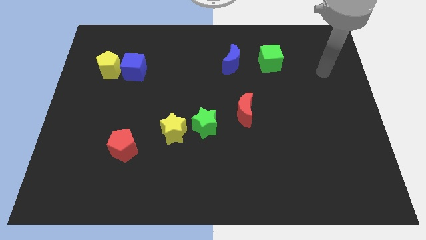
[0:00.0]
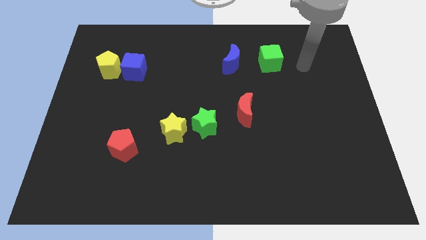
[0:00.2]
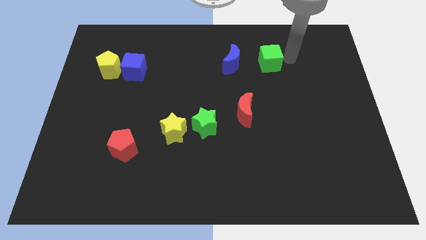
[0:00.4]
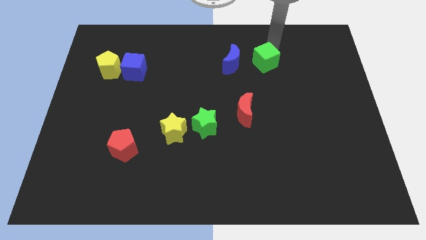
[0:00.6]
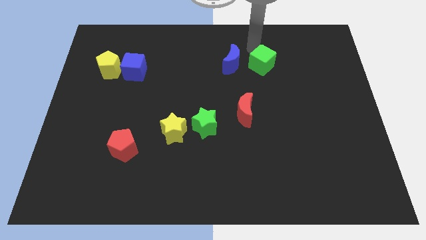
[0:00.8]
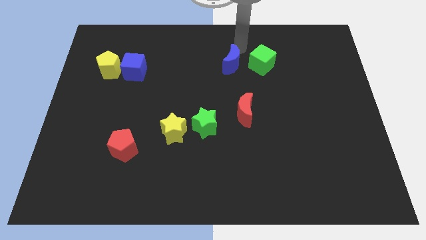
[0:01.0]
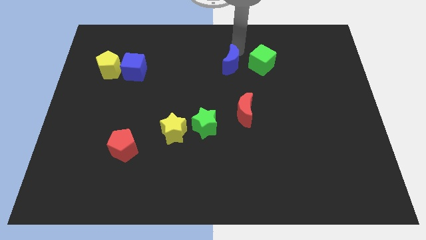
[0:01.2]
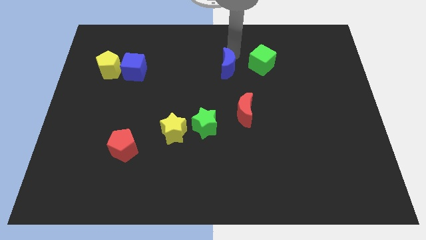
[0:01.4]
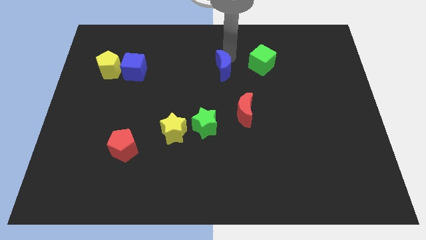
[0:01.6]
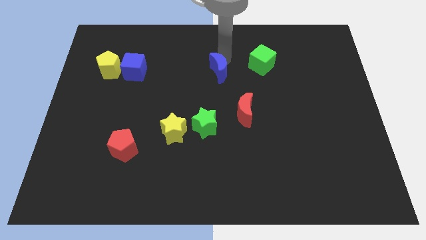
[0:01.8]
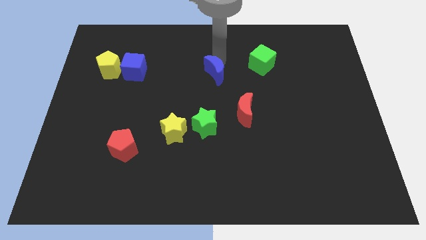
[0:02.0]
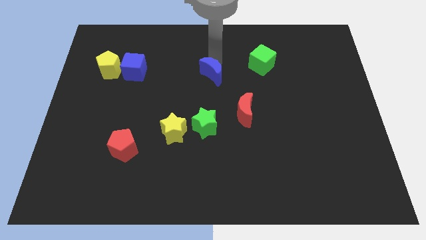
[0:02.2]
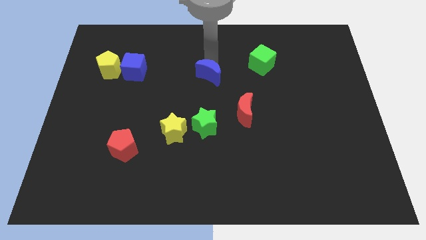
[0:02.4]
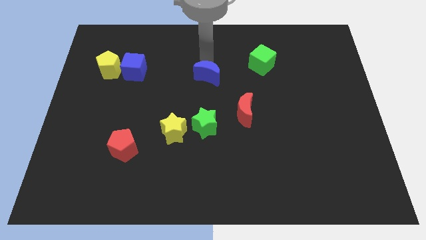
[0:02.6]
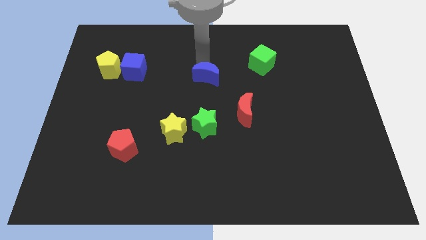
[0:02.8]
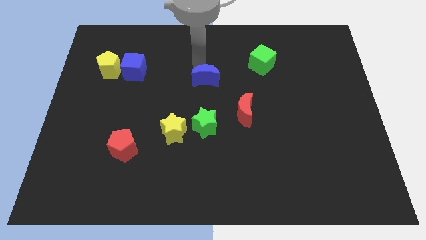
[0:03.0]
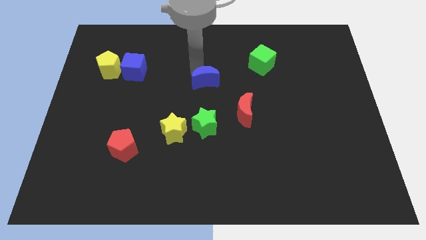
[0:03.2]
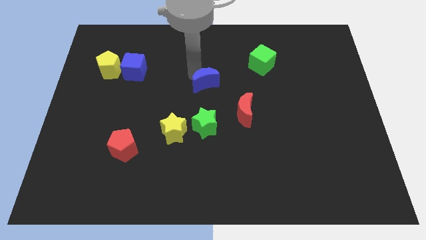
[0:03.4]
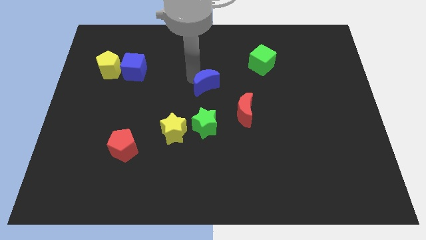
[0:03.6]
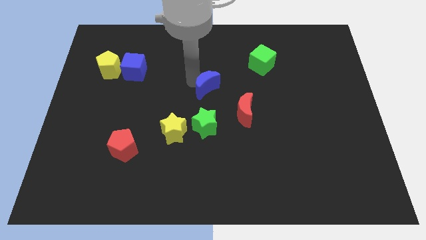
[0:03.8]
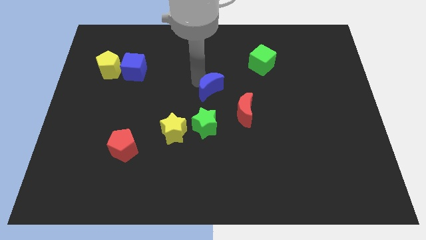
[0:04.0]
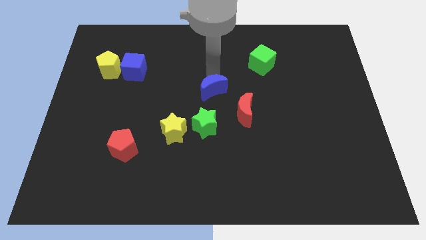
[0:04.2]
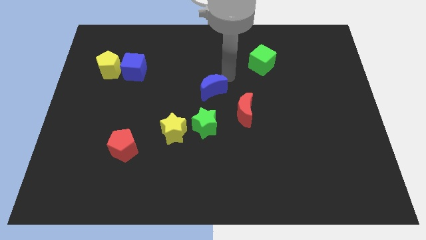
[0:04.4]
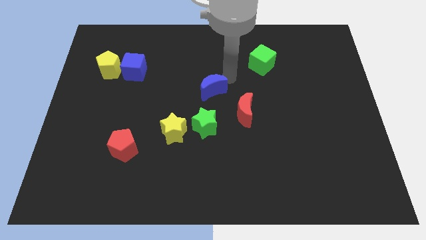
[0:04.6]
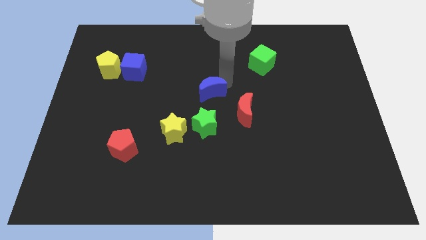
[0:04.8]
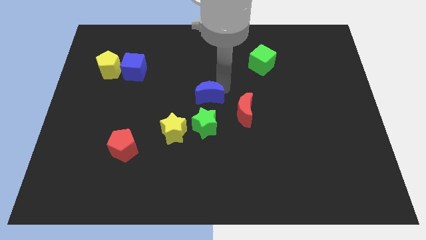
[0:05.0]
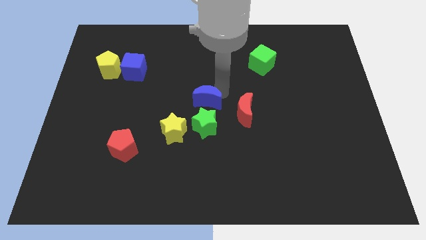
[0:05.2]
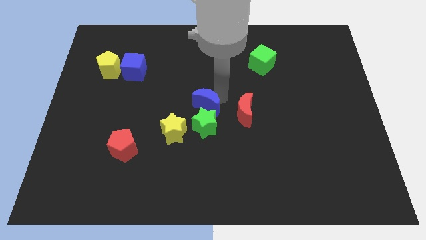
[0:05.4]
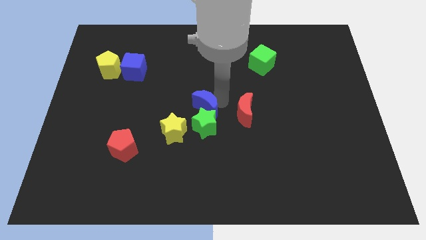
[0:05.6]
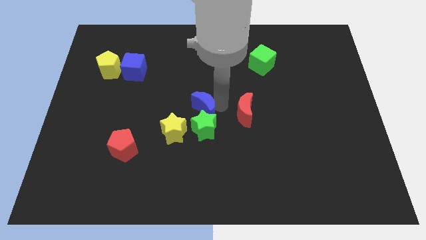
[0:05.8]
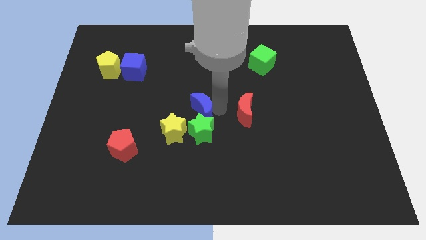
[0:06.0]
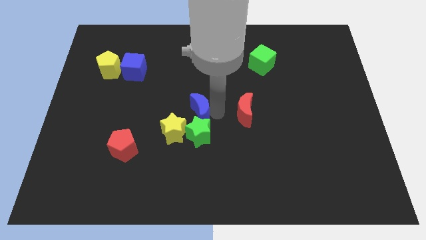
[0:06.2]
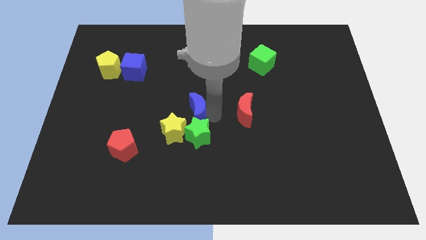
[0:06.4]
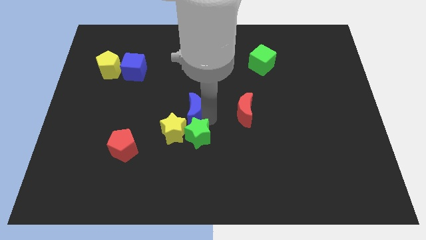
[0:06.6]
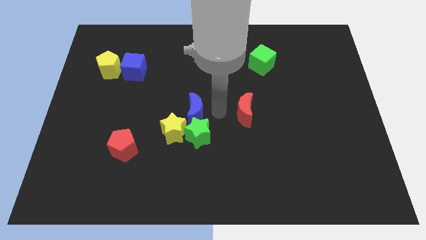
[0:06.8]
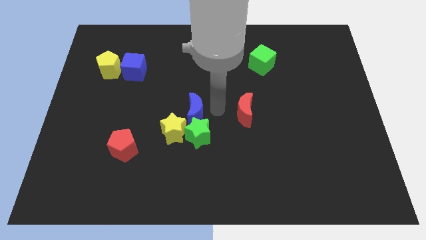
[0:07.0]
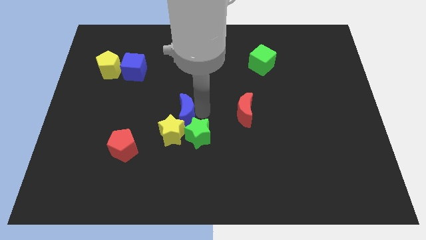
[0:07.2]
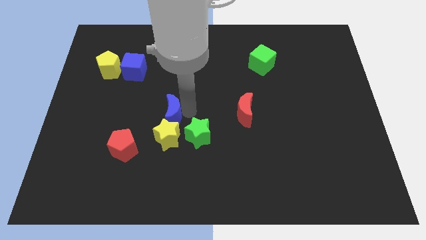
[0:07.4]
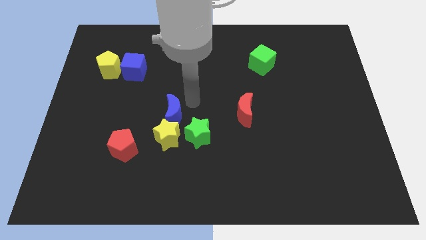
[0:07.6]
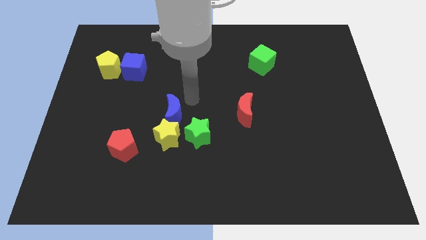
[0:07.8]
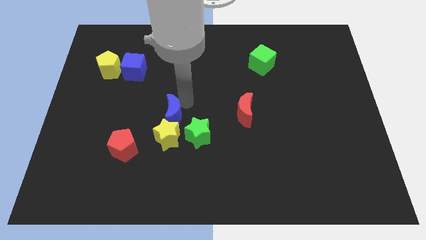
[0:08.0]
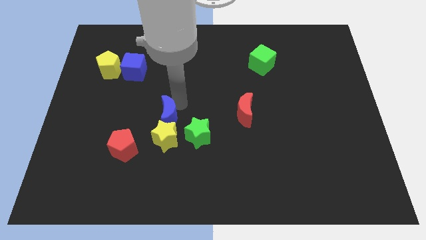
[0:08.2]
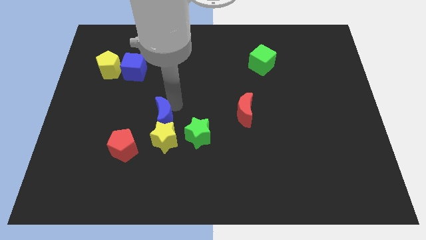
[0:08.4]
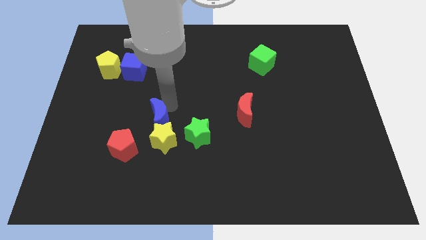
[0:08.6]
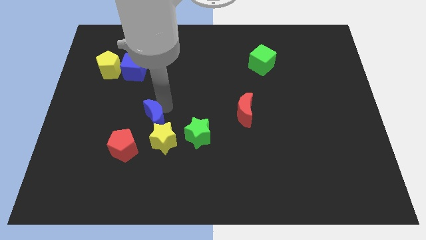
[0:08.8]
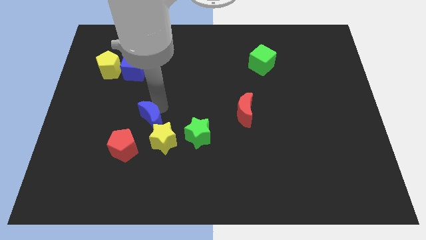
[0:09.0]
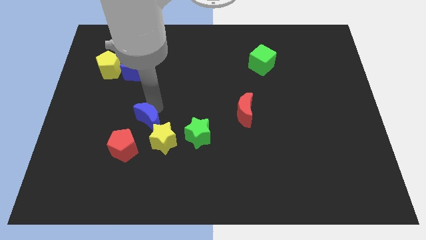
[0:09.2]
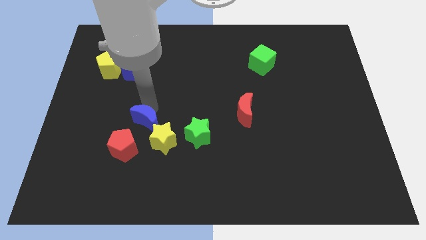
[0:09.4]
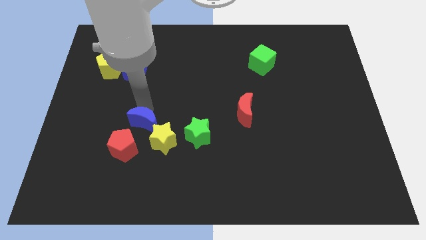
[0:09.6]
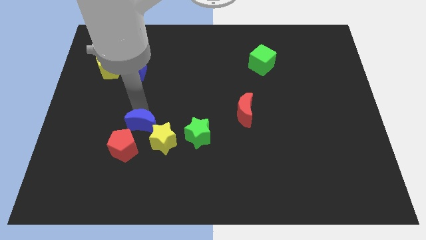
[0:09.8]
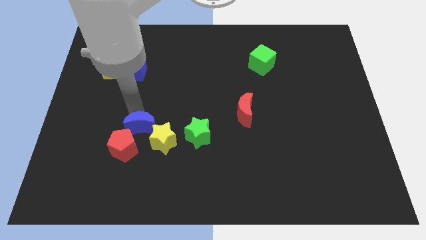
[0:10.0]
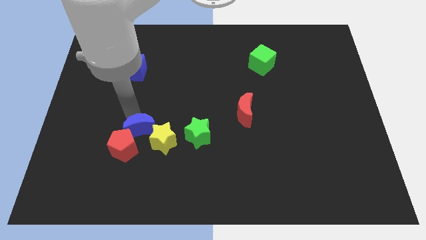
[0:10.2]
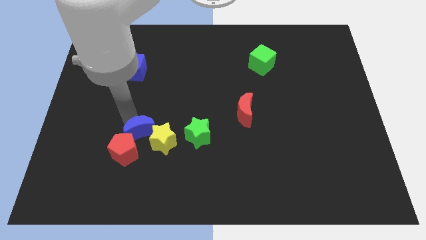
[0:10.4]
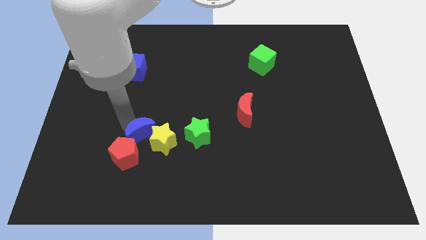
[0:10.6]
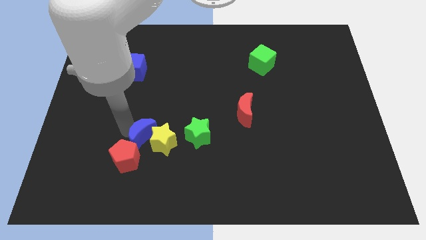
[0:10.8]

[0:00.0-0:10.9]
slide the blue moon to the bottom left of the yellow star

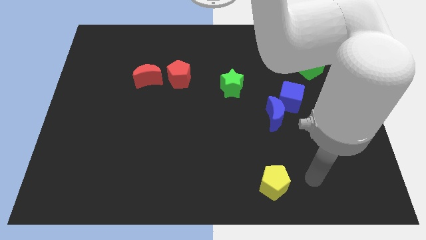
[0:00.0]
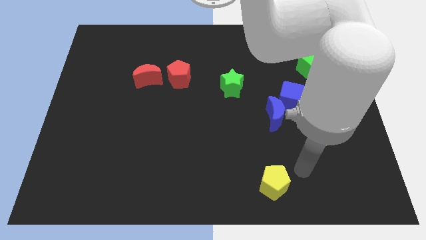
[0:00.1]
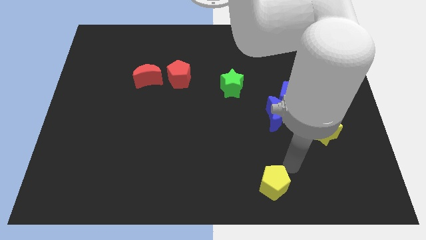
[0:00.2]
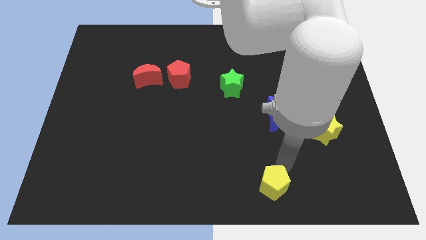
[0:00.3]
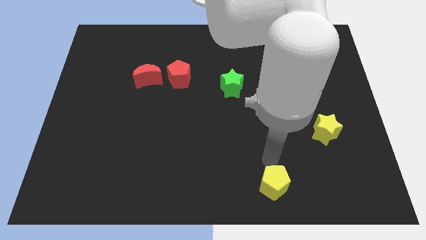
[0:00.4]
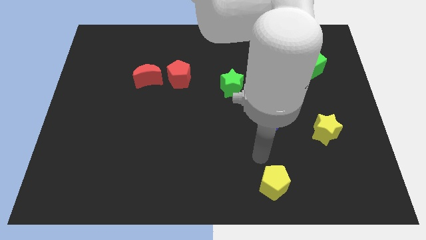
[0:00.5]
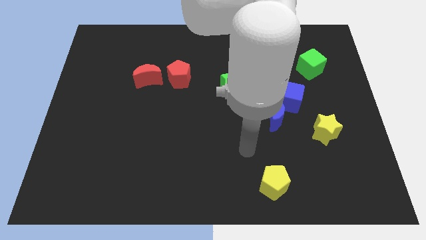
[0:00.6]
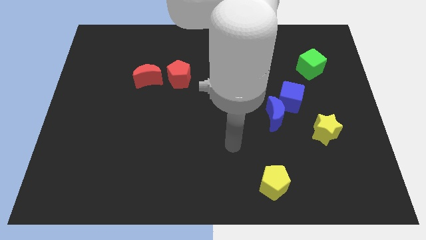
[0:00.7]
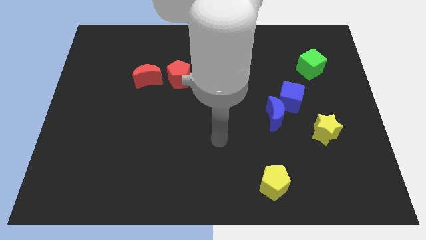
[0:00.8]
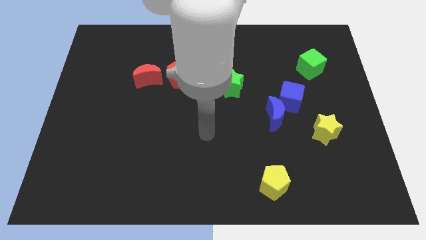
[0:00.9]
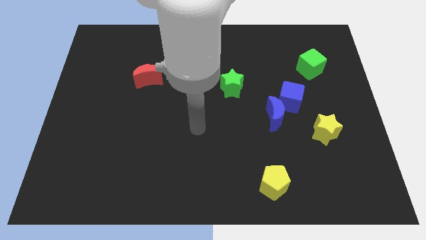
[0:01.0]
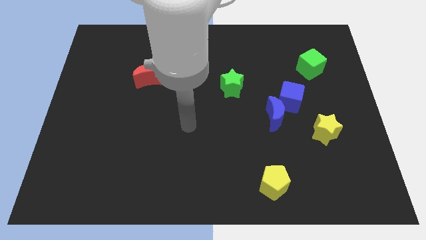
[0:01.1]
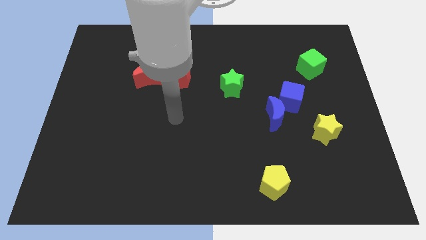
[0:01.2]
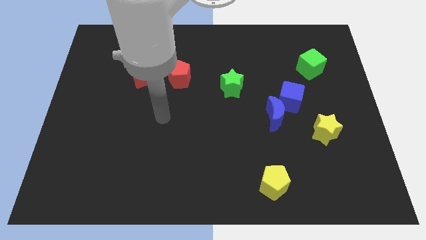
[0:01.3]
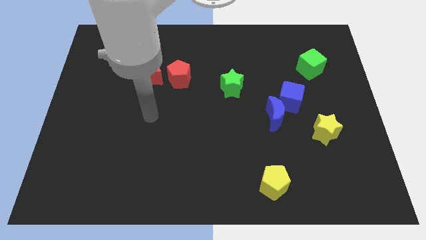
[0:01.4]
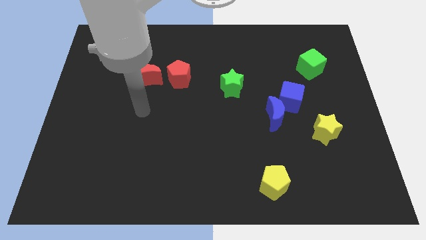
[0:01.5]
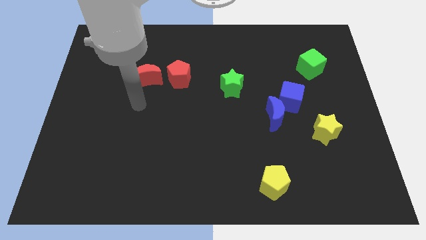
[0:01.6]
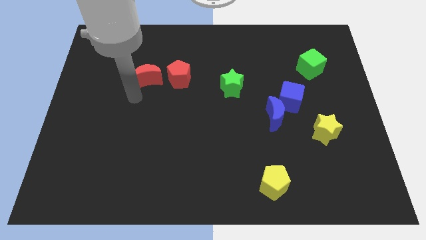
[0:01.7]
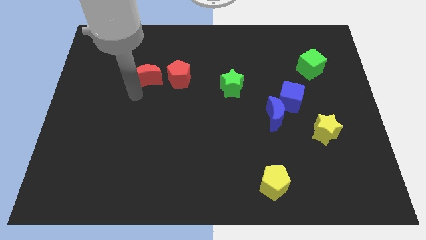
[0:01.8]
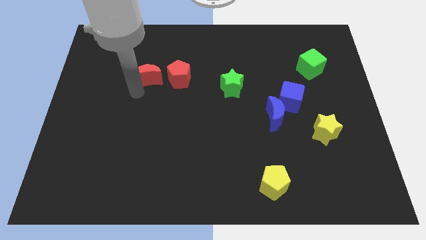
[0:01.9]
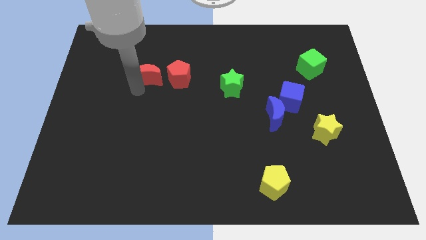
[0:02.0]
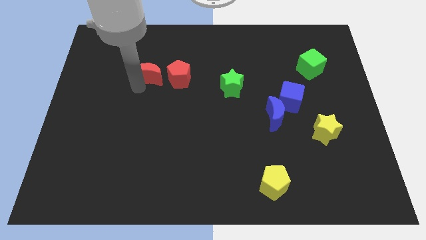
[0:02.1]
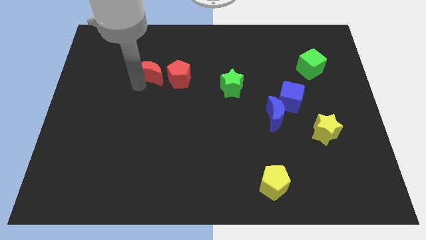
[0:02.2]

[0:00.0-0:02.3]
move the red moon to the top left side of the red pentagon
